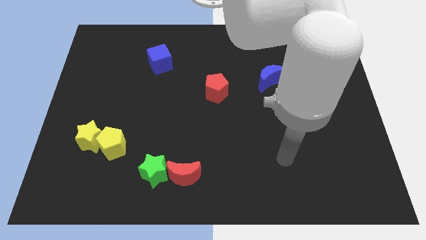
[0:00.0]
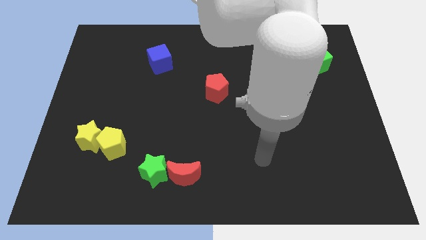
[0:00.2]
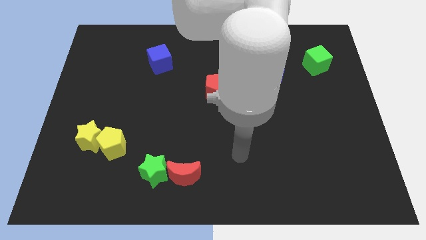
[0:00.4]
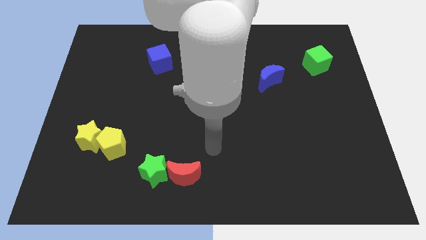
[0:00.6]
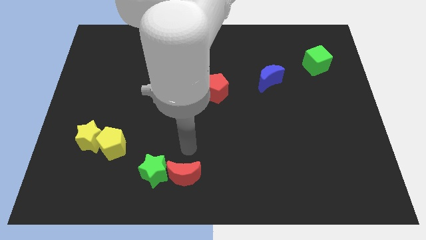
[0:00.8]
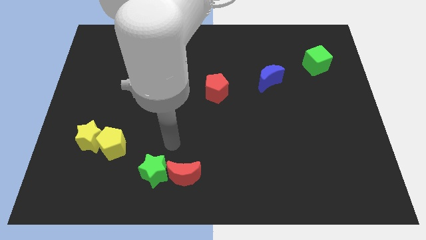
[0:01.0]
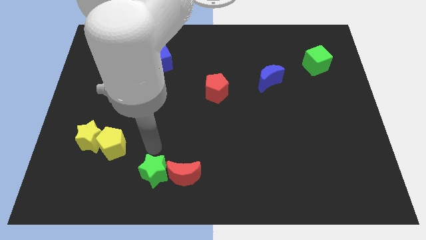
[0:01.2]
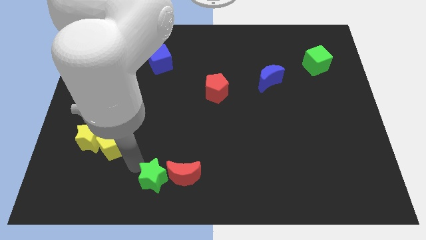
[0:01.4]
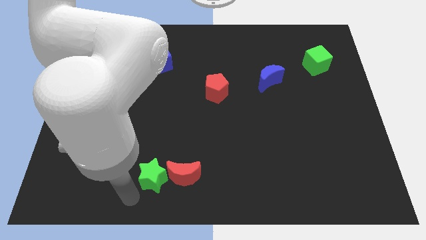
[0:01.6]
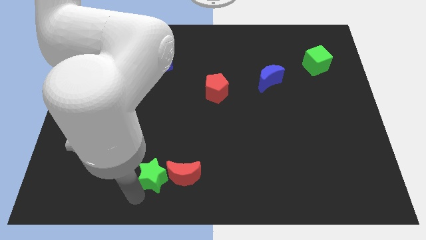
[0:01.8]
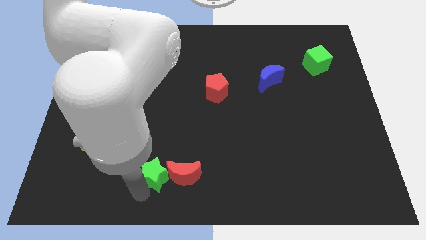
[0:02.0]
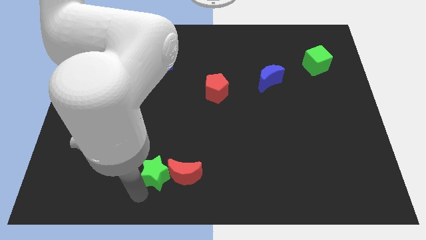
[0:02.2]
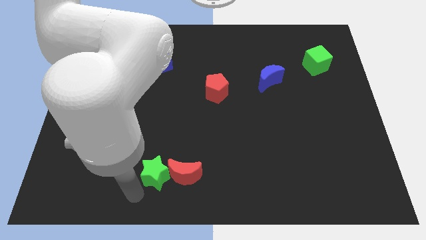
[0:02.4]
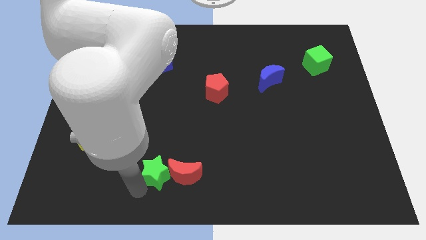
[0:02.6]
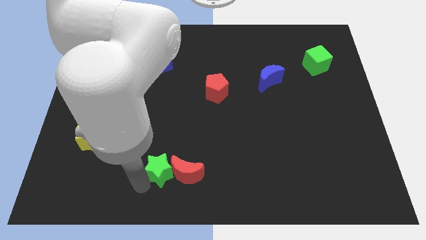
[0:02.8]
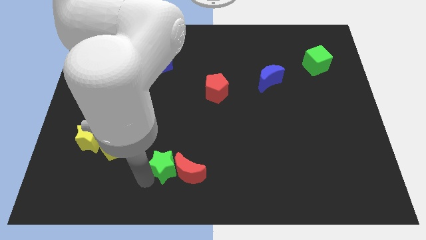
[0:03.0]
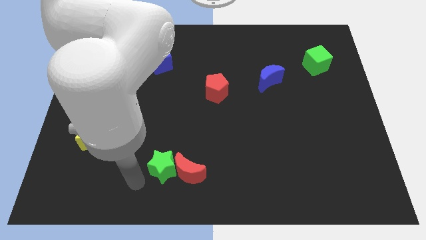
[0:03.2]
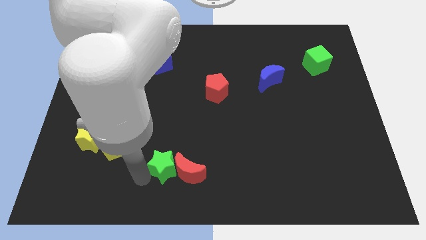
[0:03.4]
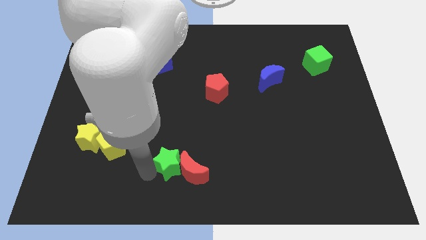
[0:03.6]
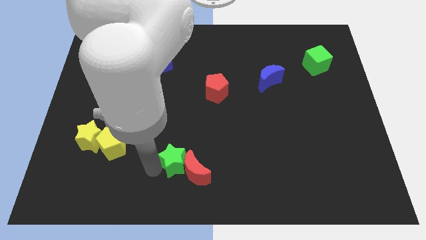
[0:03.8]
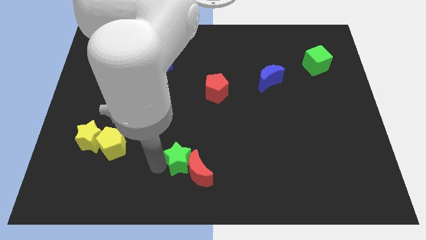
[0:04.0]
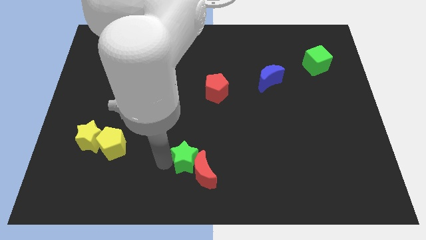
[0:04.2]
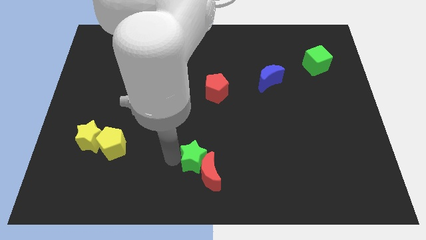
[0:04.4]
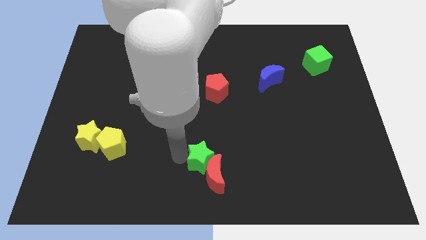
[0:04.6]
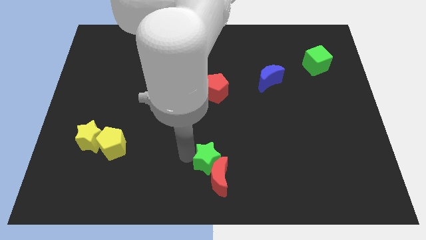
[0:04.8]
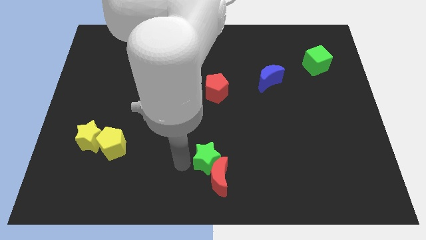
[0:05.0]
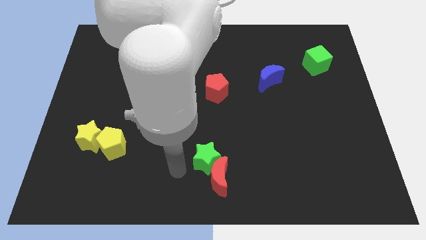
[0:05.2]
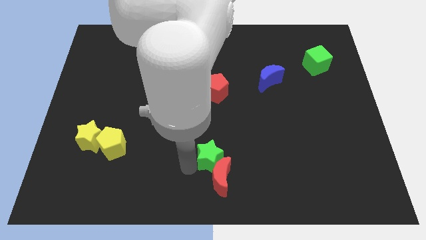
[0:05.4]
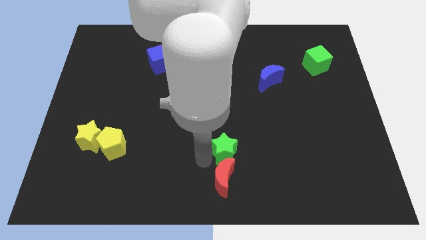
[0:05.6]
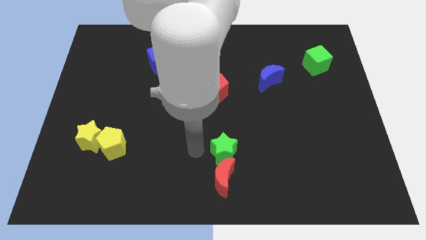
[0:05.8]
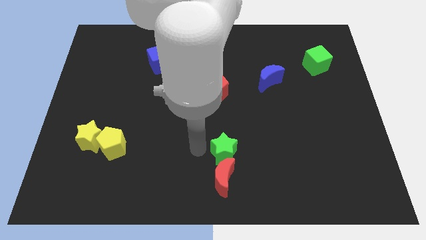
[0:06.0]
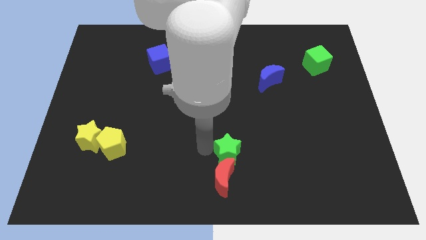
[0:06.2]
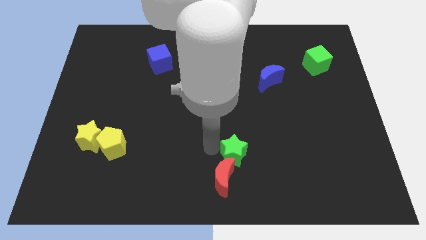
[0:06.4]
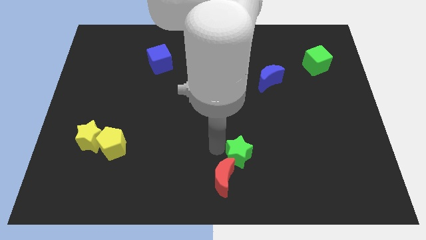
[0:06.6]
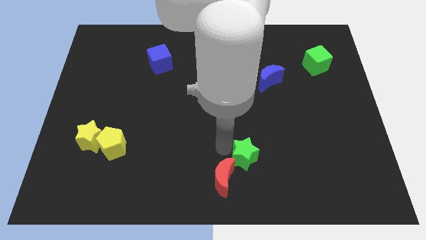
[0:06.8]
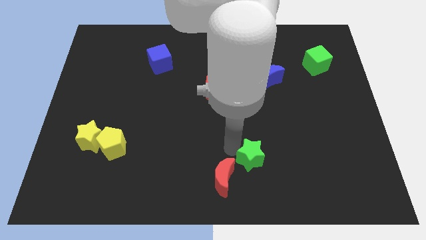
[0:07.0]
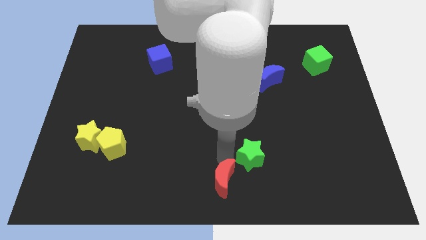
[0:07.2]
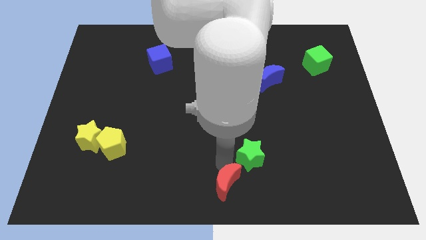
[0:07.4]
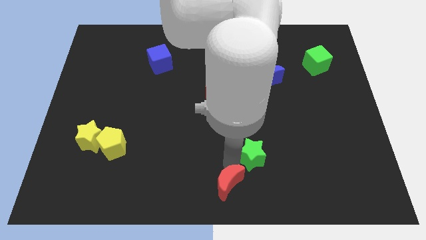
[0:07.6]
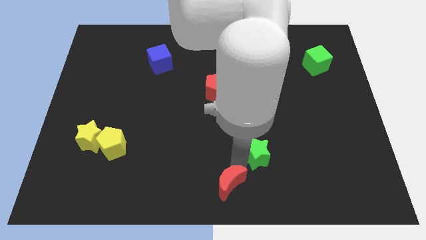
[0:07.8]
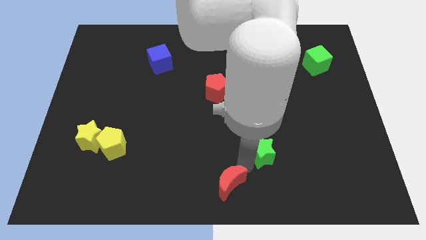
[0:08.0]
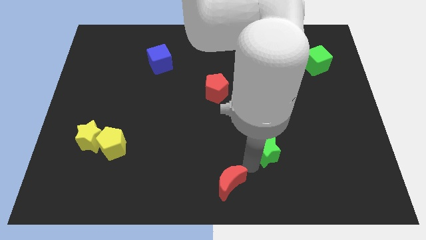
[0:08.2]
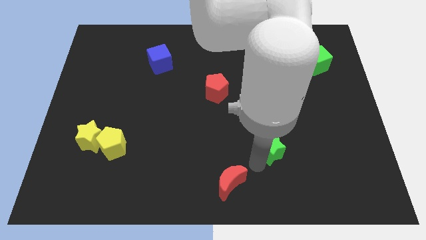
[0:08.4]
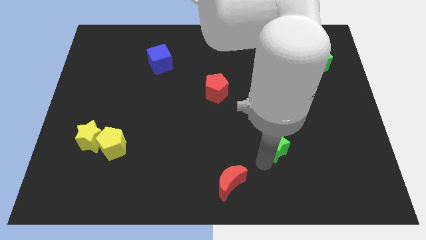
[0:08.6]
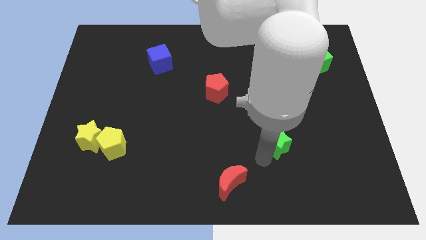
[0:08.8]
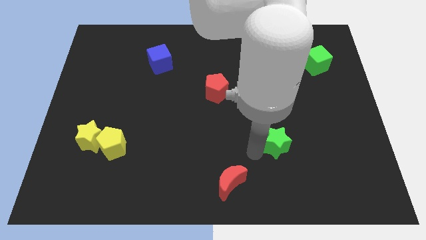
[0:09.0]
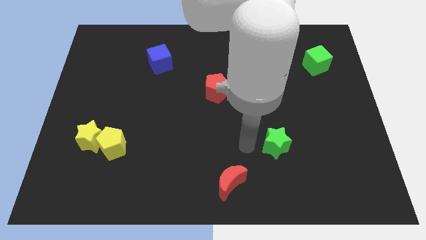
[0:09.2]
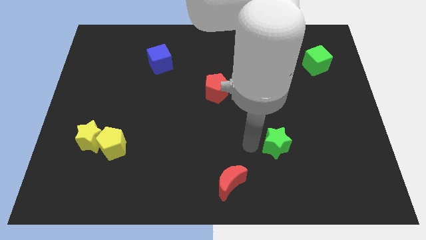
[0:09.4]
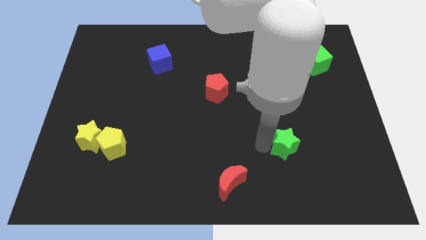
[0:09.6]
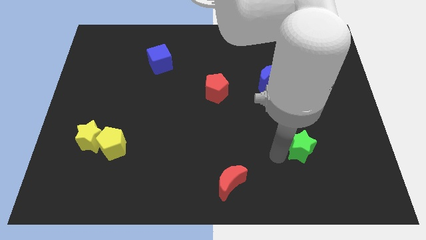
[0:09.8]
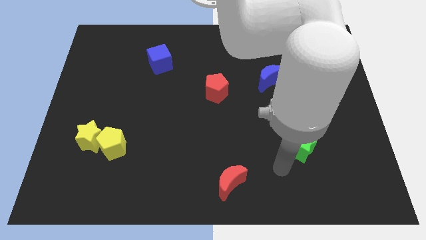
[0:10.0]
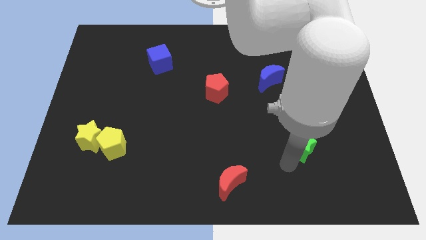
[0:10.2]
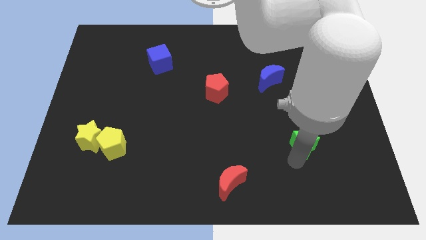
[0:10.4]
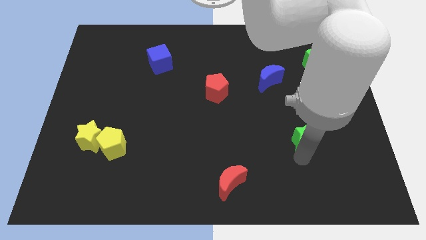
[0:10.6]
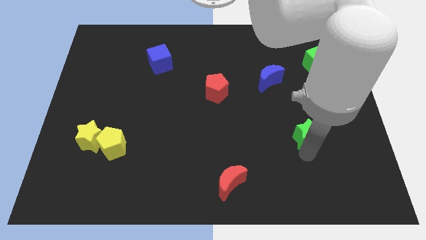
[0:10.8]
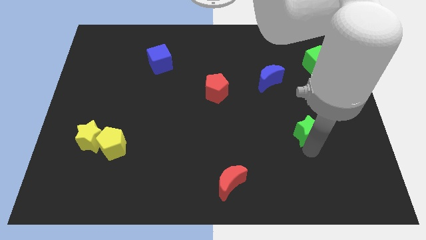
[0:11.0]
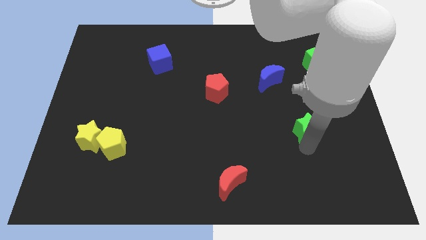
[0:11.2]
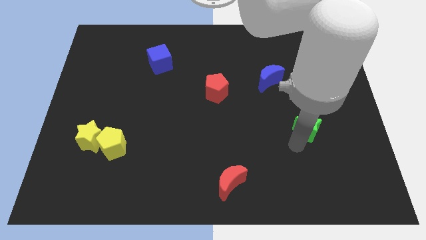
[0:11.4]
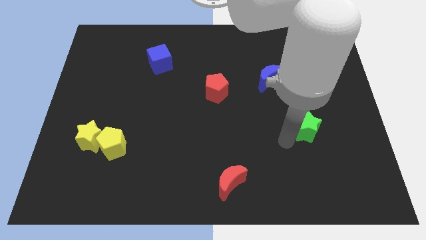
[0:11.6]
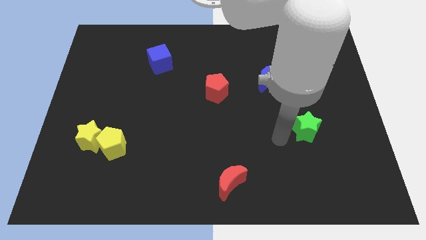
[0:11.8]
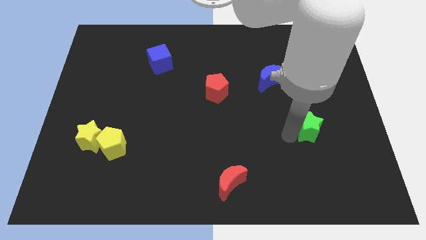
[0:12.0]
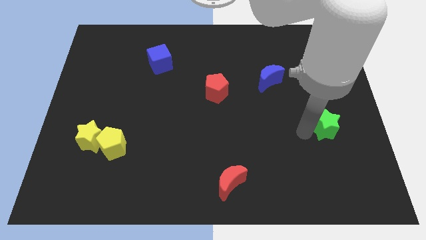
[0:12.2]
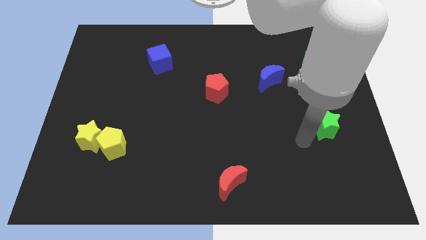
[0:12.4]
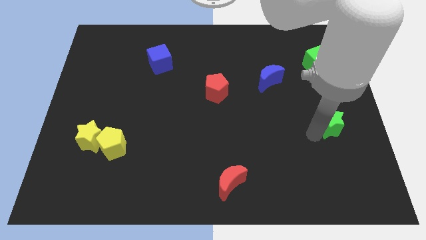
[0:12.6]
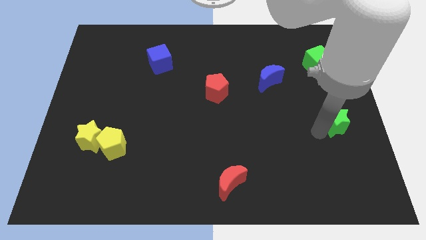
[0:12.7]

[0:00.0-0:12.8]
put the green star to the center right
